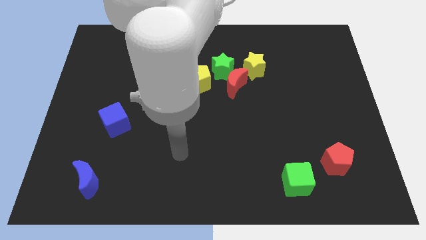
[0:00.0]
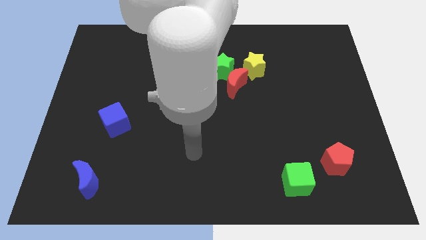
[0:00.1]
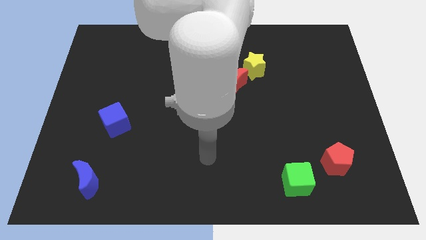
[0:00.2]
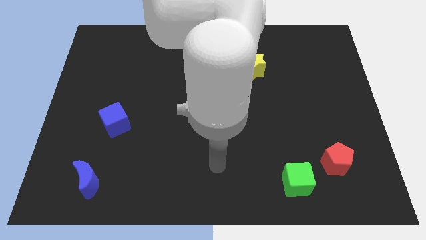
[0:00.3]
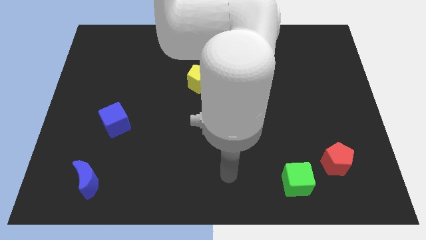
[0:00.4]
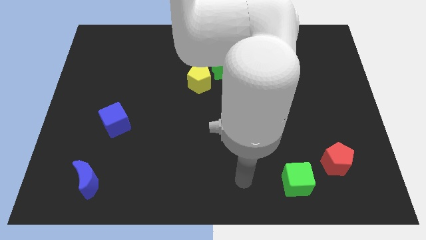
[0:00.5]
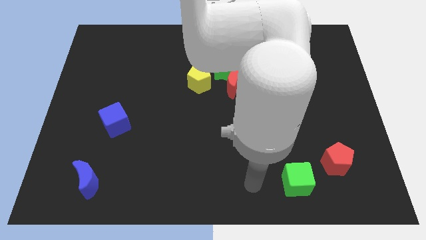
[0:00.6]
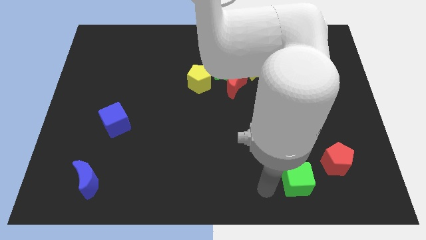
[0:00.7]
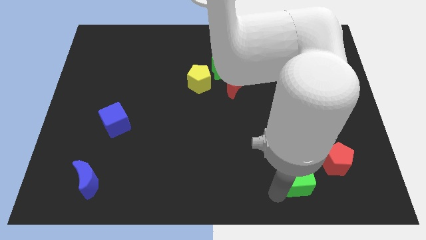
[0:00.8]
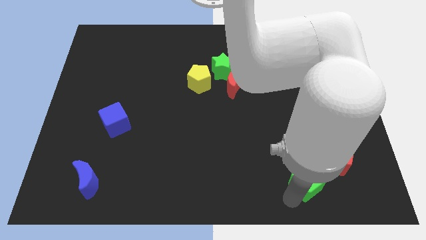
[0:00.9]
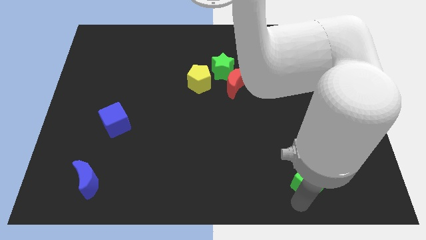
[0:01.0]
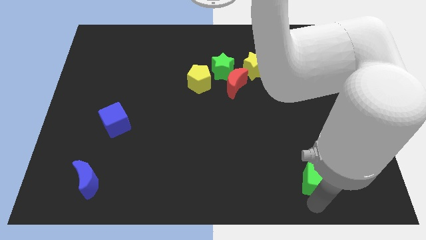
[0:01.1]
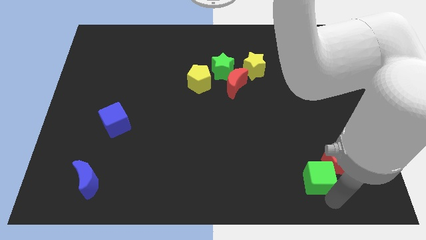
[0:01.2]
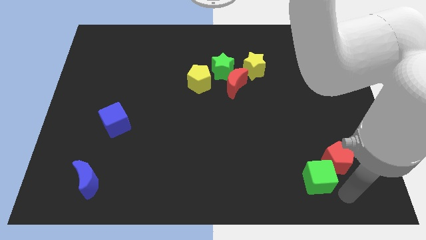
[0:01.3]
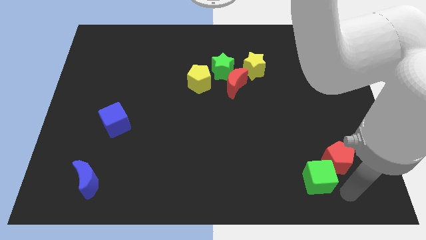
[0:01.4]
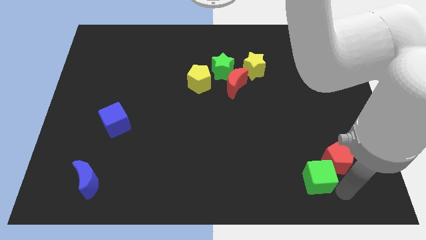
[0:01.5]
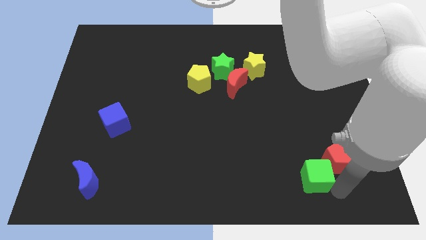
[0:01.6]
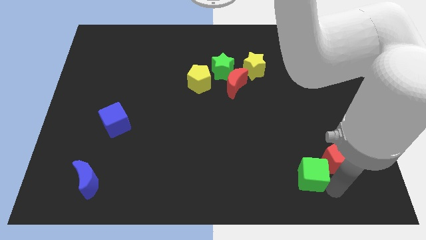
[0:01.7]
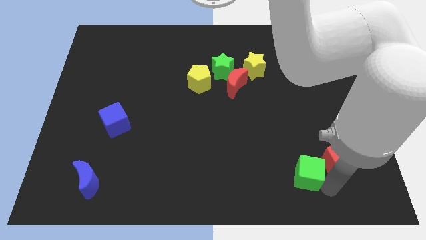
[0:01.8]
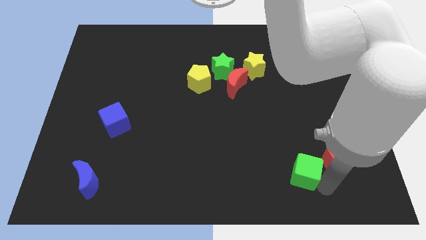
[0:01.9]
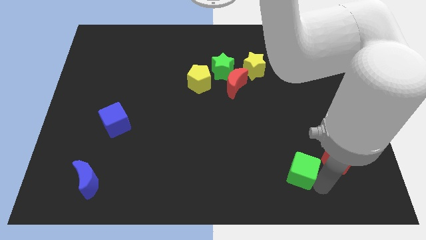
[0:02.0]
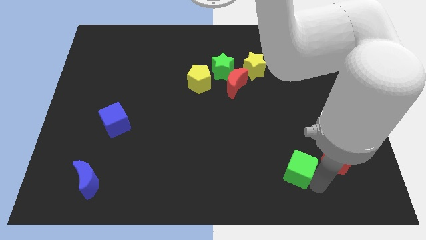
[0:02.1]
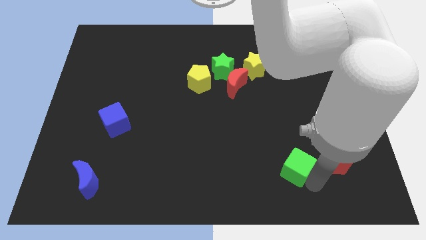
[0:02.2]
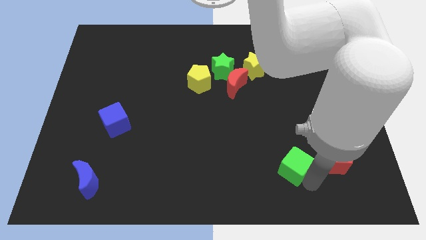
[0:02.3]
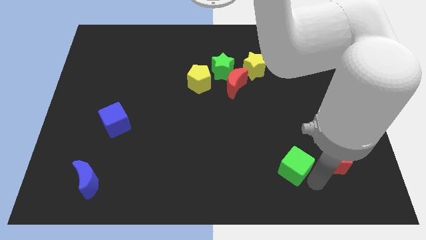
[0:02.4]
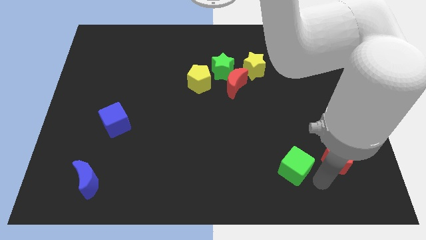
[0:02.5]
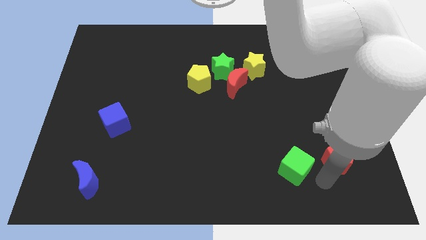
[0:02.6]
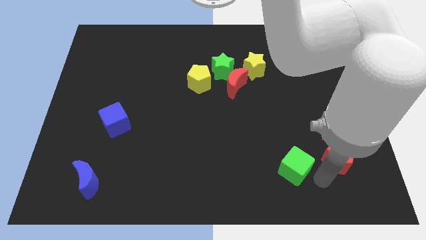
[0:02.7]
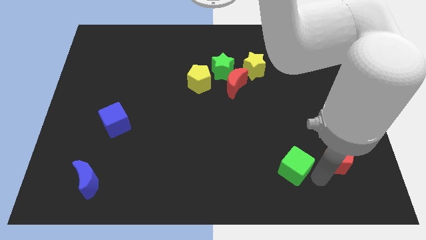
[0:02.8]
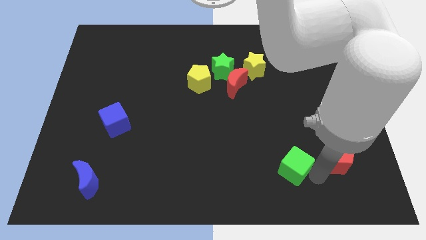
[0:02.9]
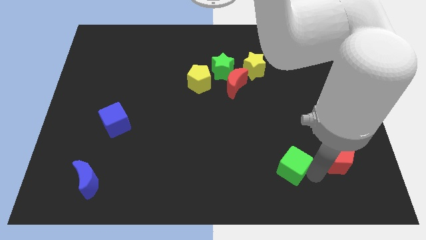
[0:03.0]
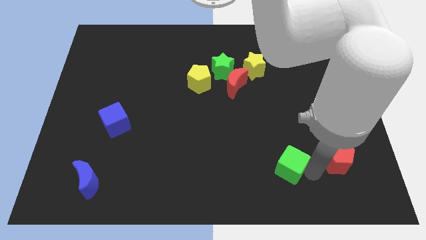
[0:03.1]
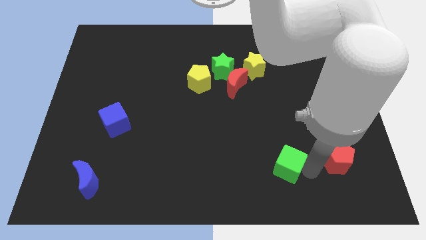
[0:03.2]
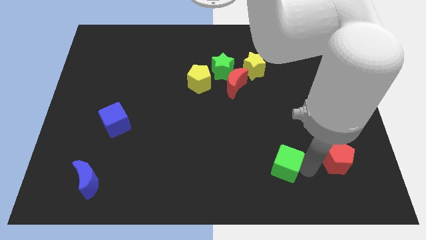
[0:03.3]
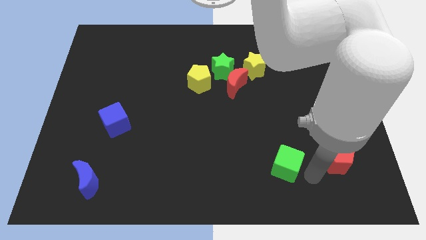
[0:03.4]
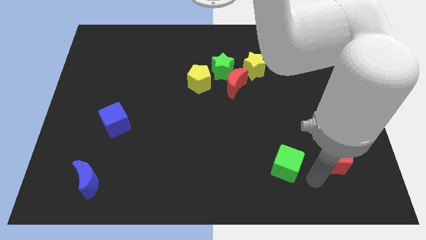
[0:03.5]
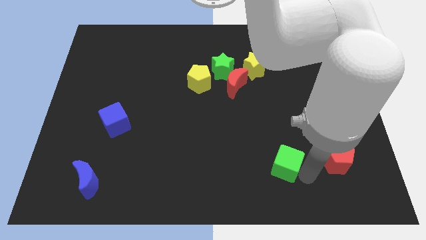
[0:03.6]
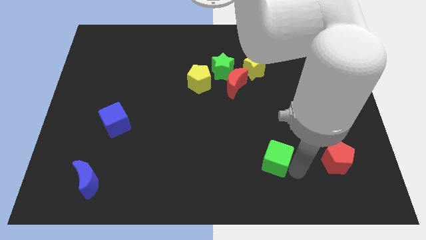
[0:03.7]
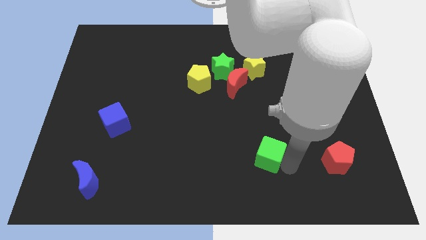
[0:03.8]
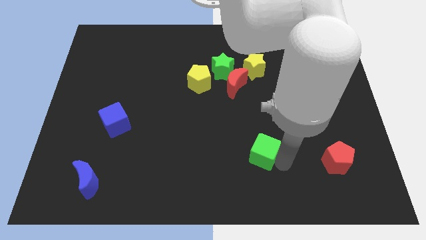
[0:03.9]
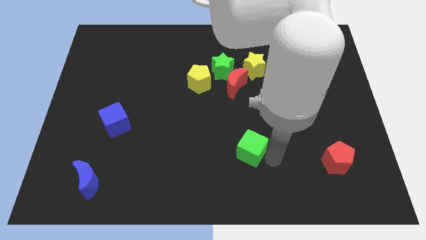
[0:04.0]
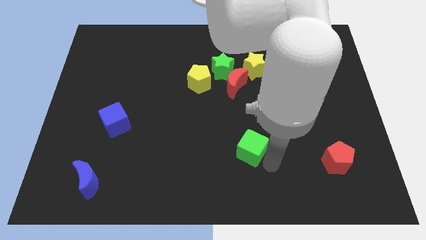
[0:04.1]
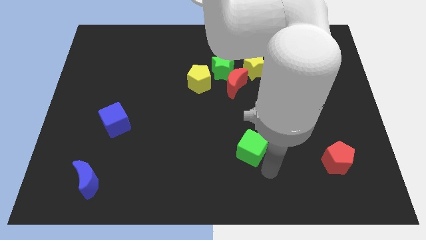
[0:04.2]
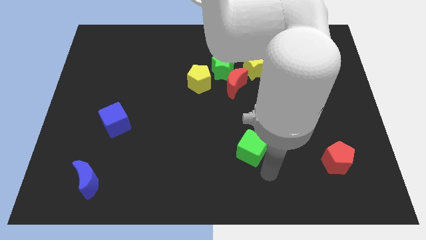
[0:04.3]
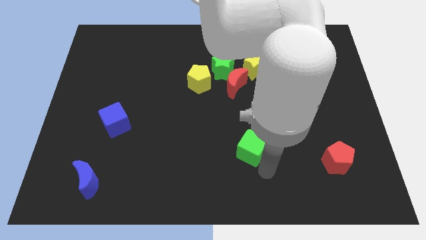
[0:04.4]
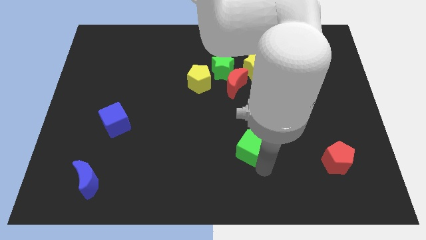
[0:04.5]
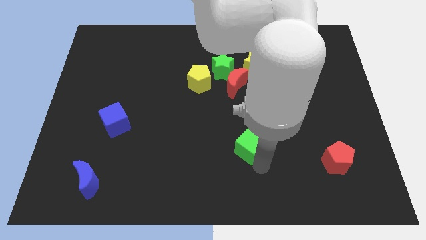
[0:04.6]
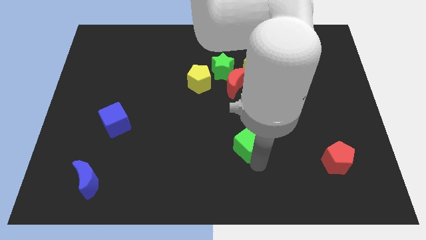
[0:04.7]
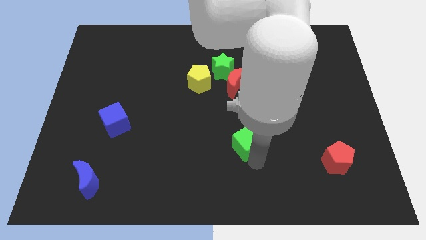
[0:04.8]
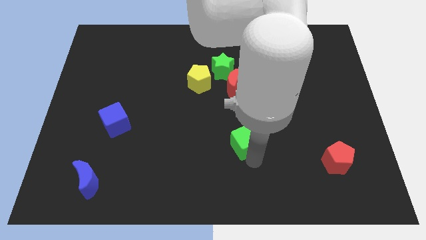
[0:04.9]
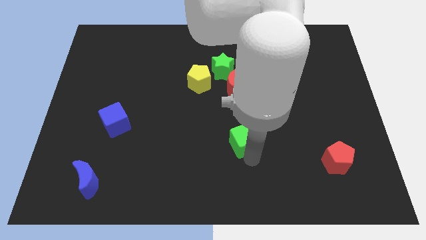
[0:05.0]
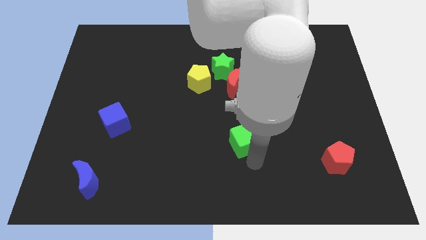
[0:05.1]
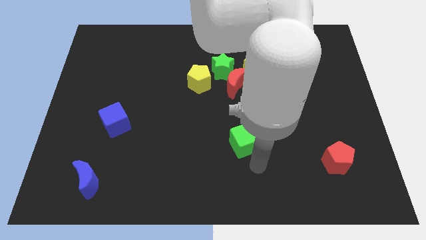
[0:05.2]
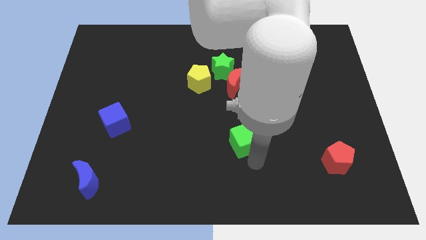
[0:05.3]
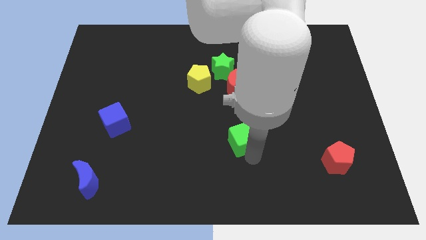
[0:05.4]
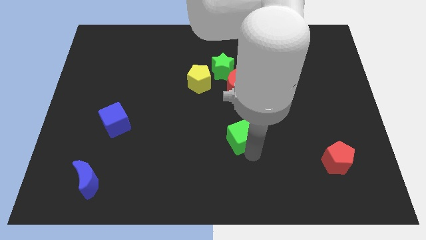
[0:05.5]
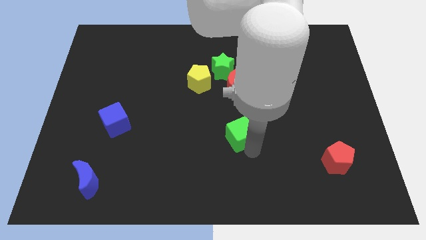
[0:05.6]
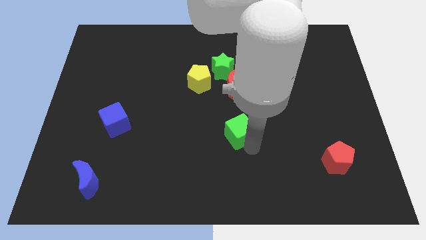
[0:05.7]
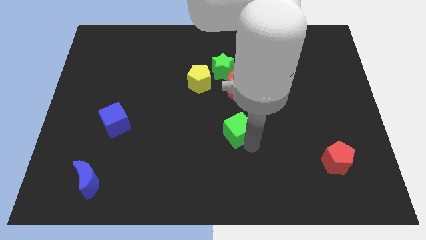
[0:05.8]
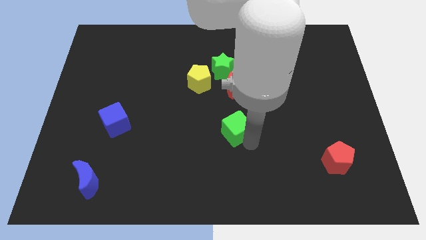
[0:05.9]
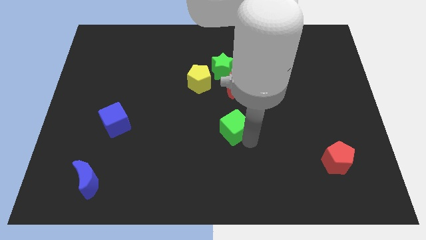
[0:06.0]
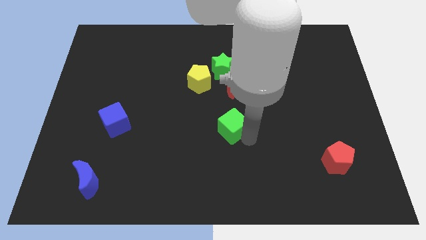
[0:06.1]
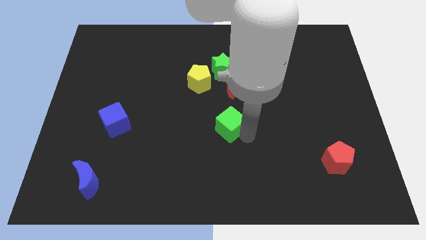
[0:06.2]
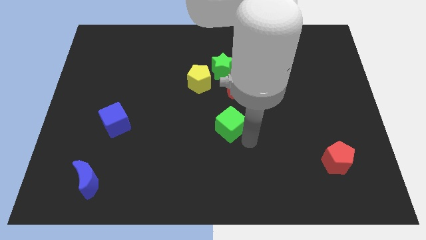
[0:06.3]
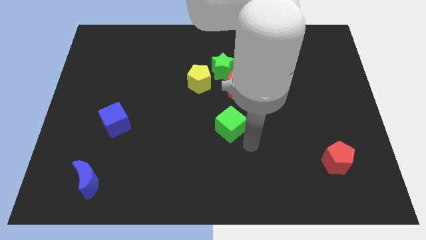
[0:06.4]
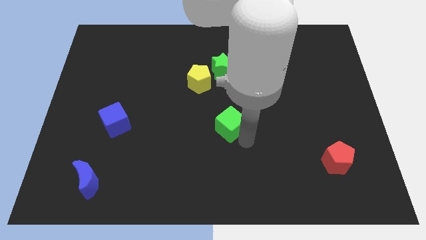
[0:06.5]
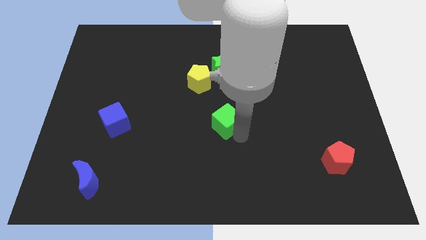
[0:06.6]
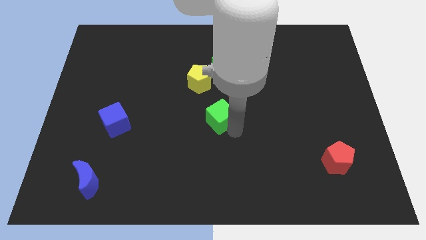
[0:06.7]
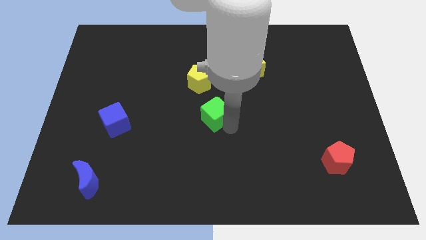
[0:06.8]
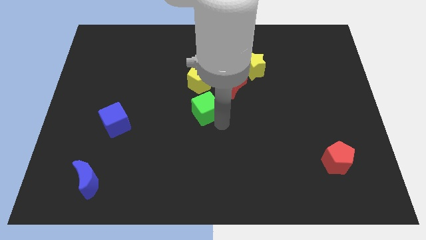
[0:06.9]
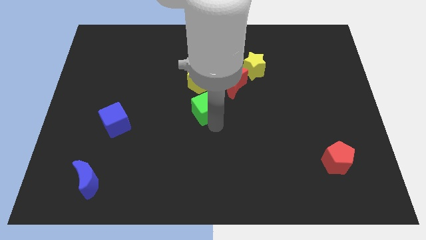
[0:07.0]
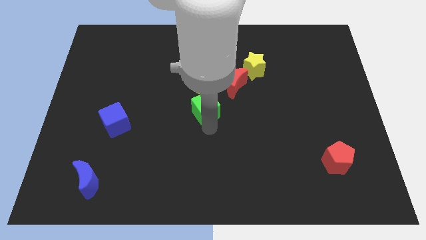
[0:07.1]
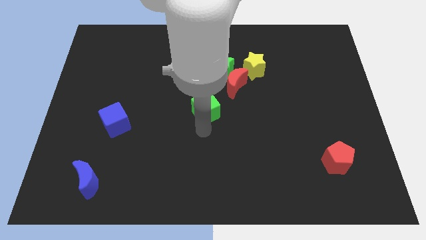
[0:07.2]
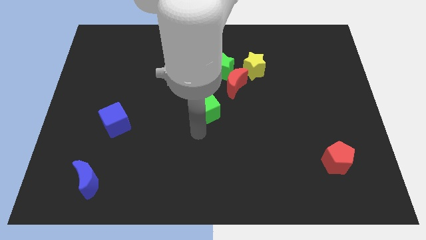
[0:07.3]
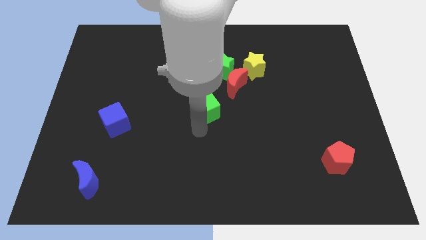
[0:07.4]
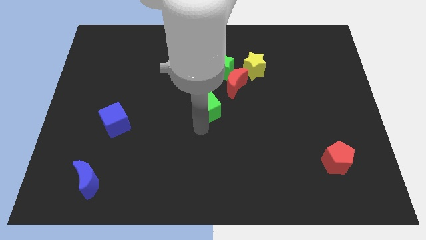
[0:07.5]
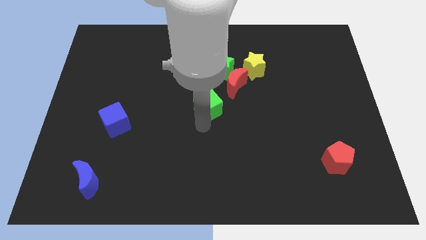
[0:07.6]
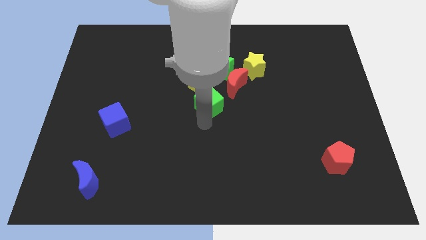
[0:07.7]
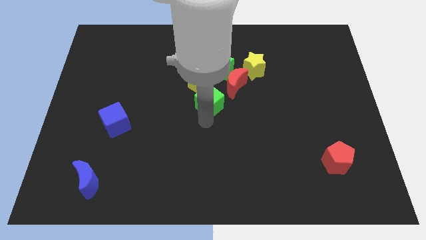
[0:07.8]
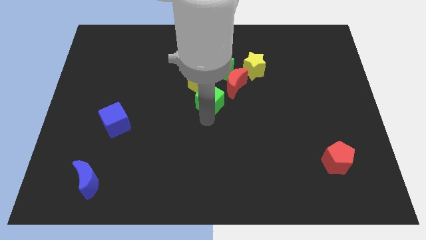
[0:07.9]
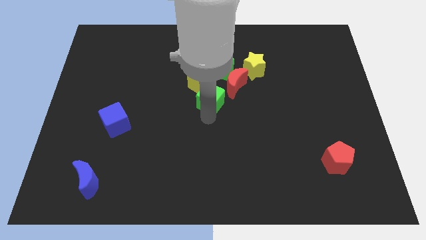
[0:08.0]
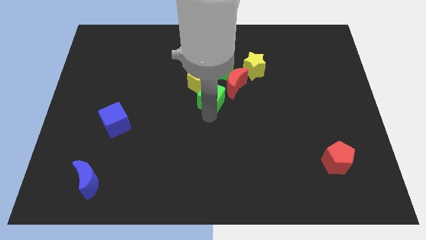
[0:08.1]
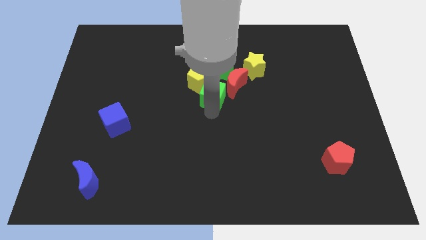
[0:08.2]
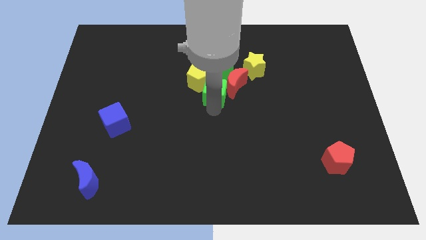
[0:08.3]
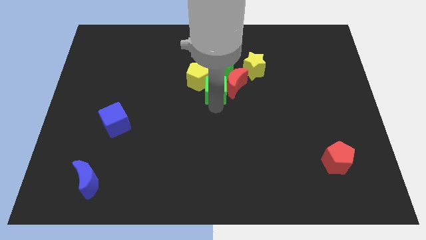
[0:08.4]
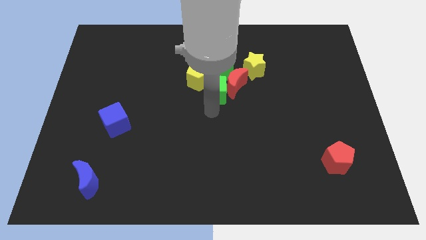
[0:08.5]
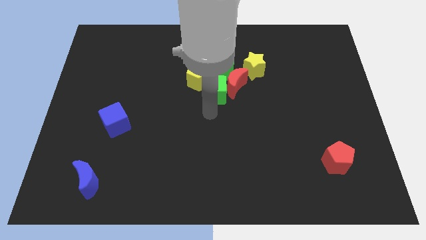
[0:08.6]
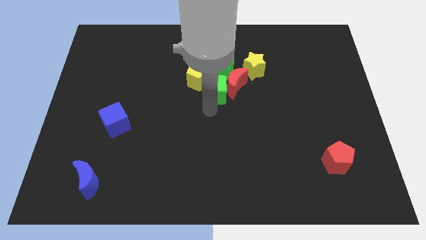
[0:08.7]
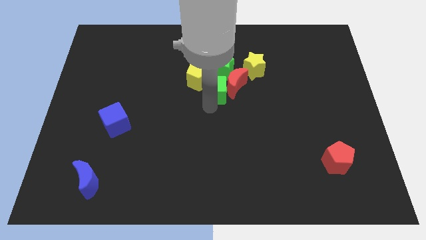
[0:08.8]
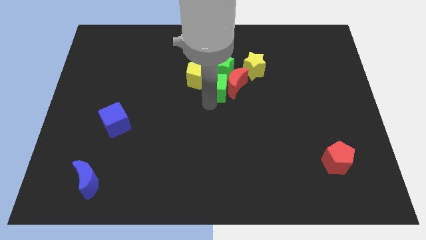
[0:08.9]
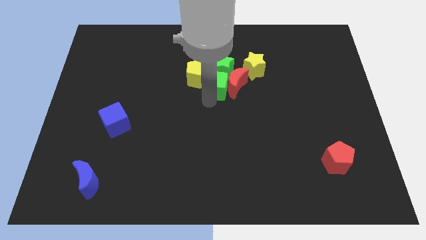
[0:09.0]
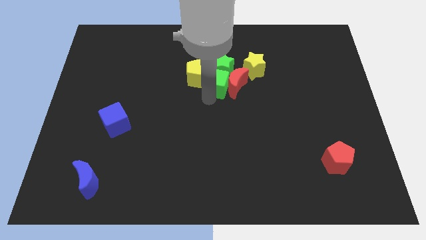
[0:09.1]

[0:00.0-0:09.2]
slide the green cube close to the green star
